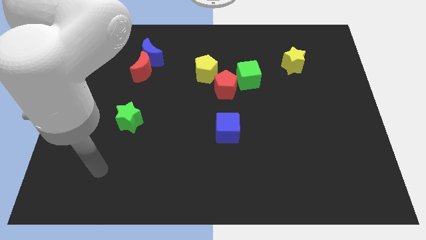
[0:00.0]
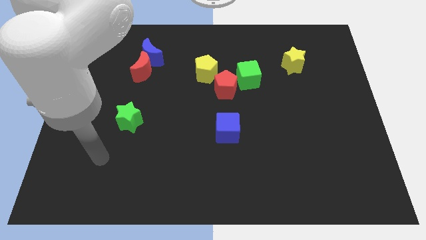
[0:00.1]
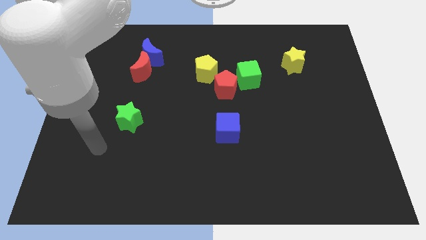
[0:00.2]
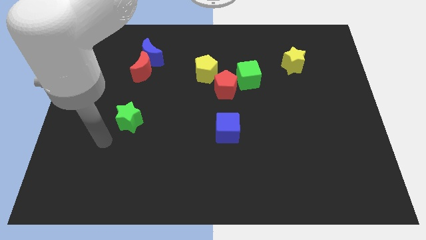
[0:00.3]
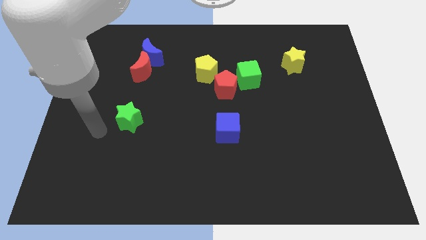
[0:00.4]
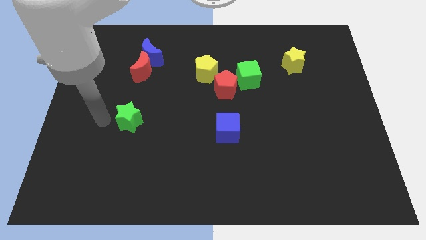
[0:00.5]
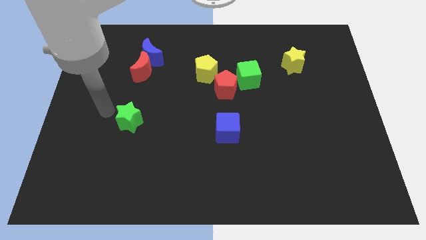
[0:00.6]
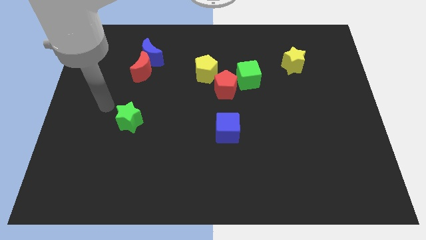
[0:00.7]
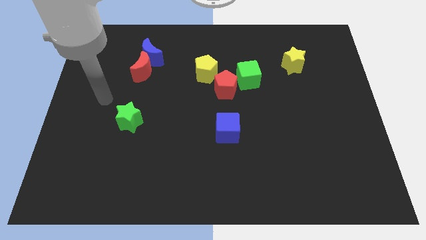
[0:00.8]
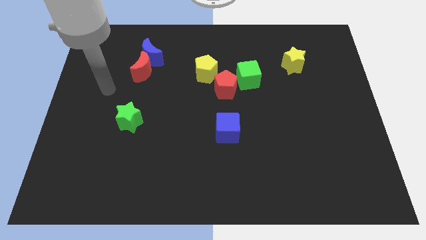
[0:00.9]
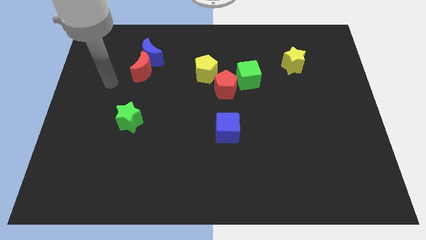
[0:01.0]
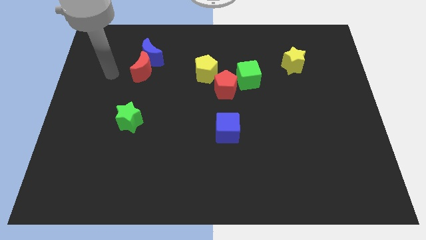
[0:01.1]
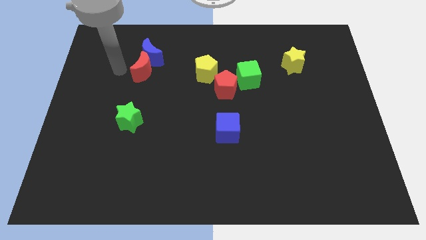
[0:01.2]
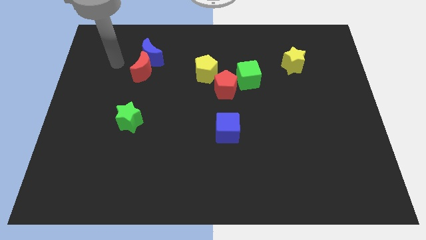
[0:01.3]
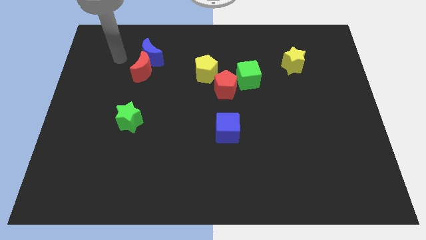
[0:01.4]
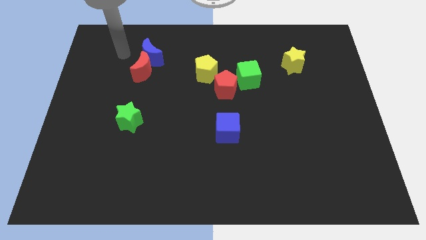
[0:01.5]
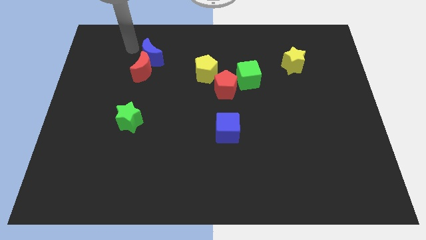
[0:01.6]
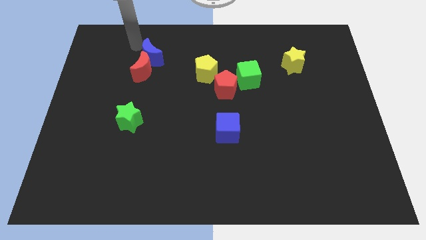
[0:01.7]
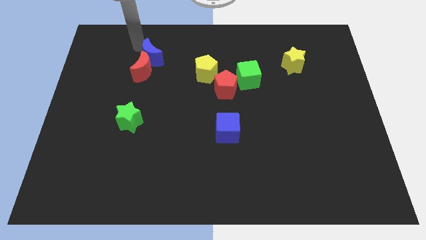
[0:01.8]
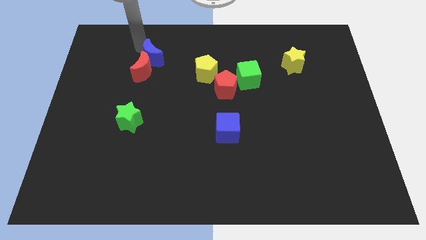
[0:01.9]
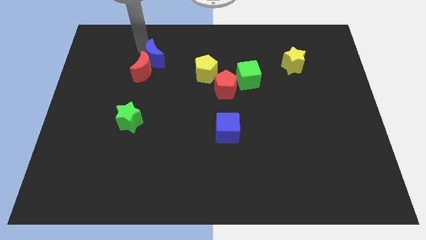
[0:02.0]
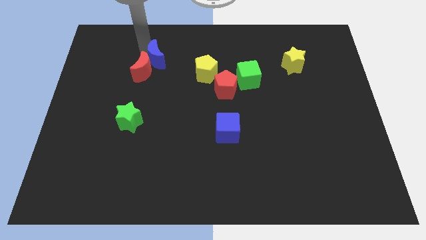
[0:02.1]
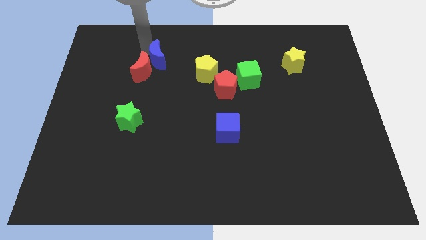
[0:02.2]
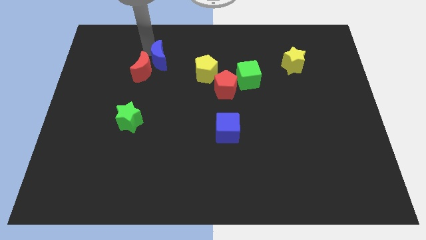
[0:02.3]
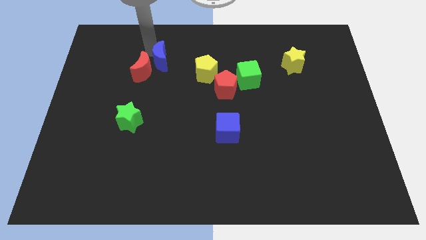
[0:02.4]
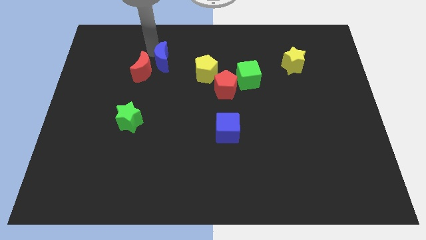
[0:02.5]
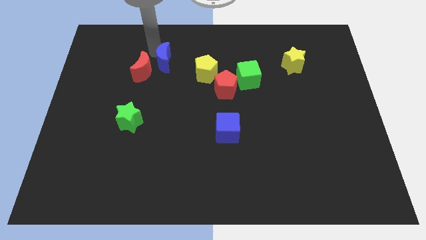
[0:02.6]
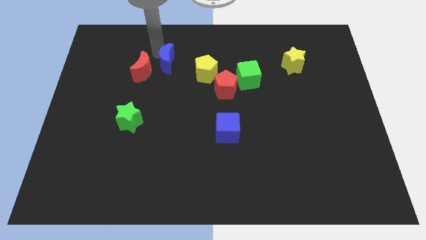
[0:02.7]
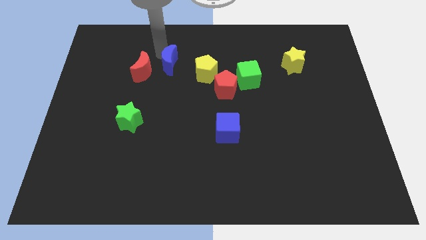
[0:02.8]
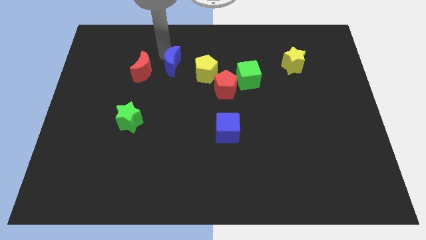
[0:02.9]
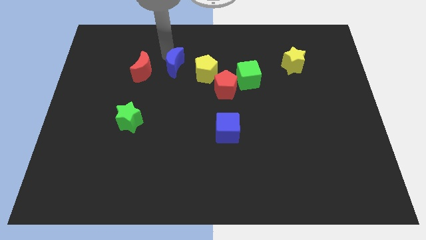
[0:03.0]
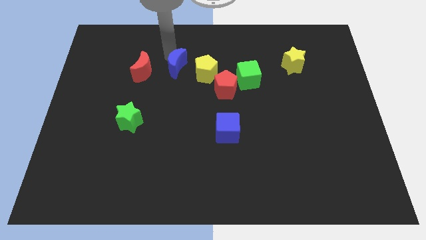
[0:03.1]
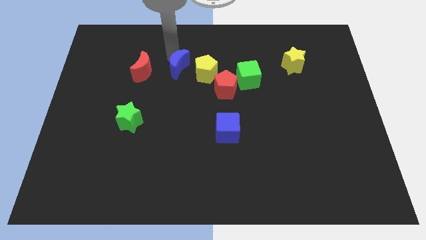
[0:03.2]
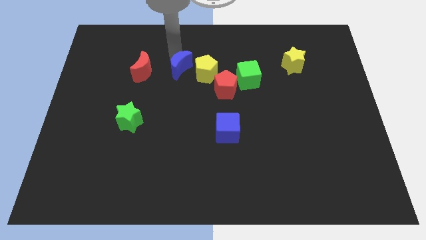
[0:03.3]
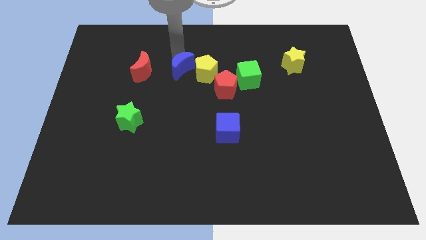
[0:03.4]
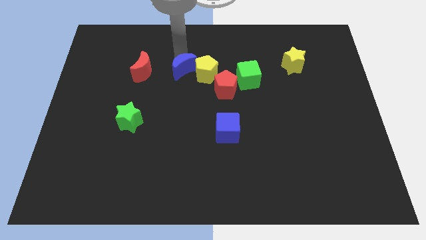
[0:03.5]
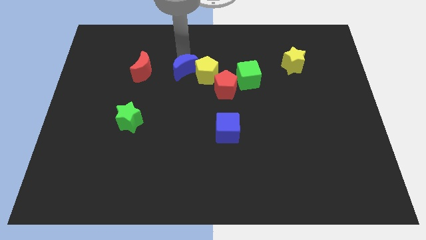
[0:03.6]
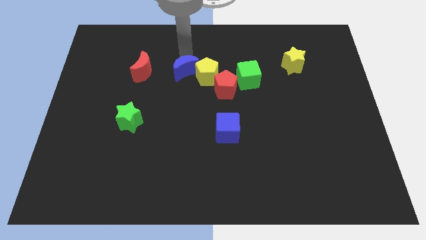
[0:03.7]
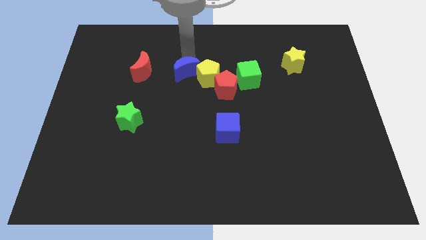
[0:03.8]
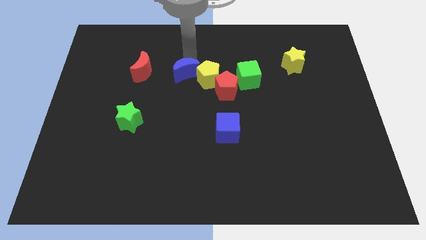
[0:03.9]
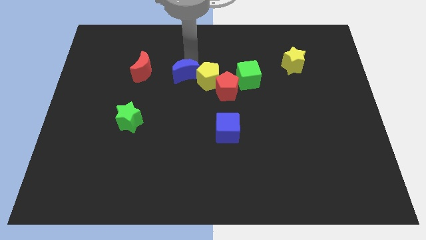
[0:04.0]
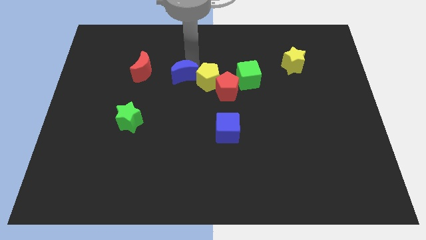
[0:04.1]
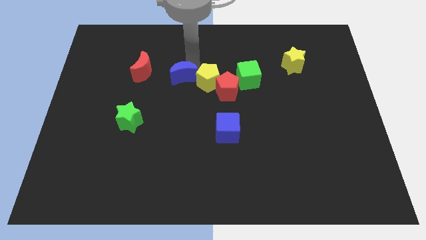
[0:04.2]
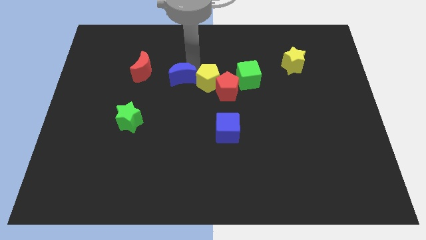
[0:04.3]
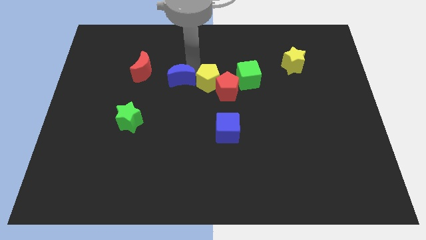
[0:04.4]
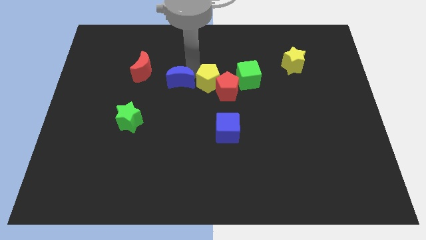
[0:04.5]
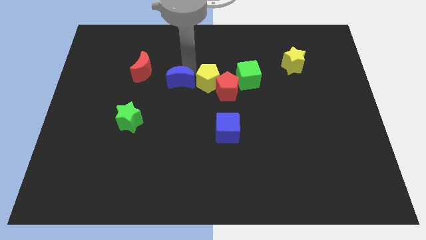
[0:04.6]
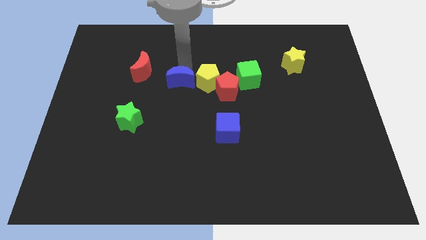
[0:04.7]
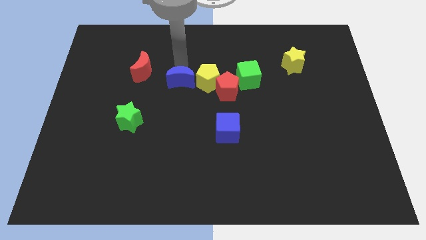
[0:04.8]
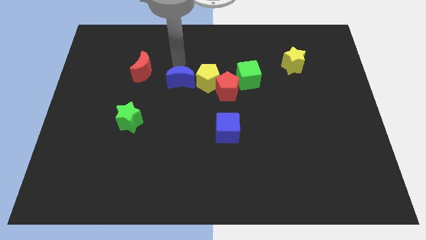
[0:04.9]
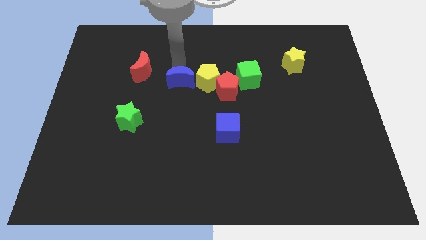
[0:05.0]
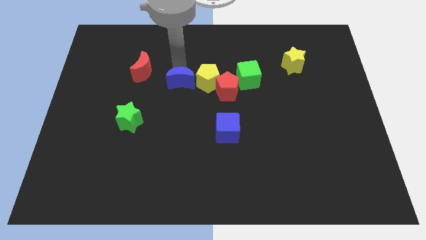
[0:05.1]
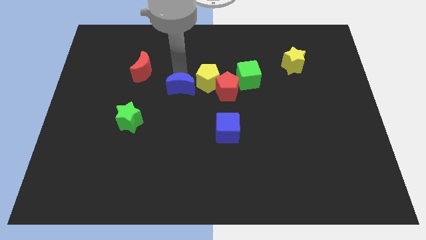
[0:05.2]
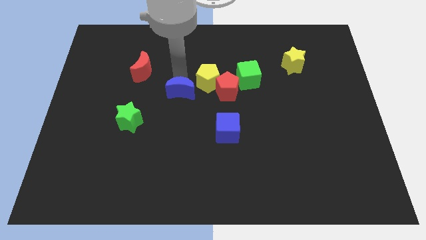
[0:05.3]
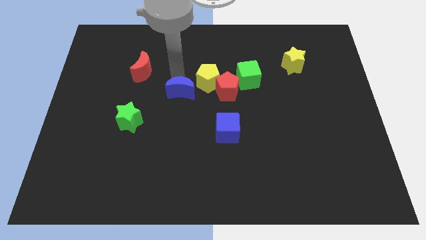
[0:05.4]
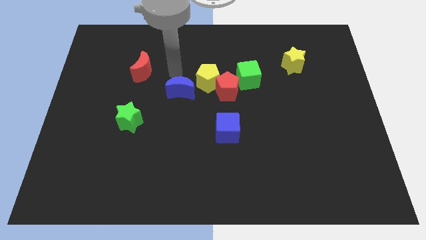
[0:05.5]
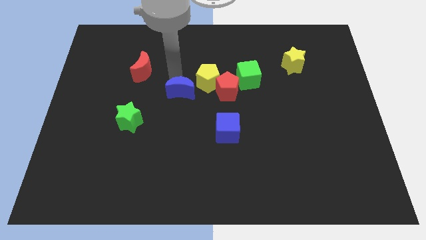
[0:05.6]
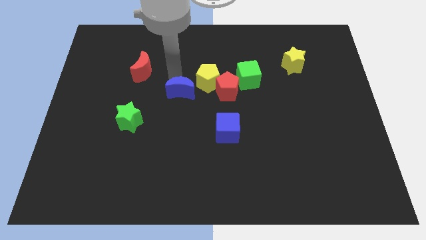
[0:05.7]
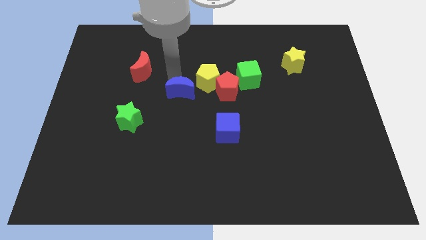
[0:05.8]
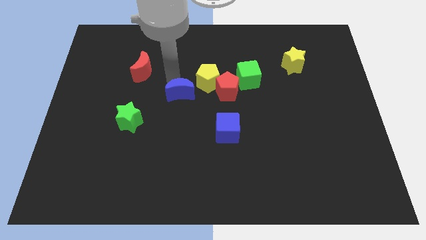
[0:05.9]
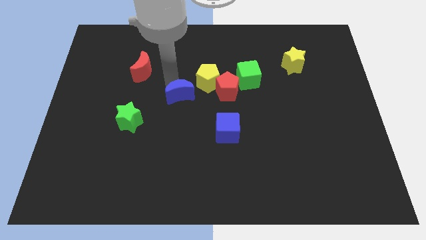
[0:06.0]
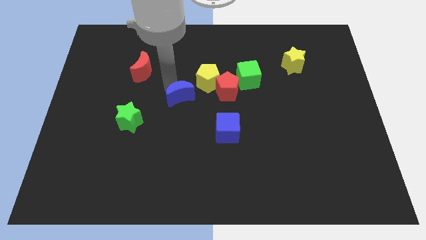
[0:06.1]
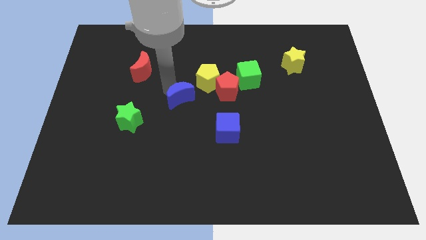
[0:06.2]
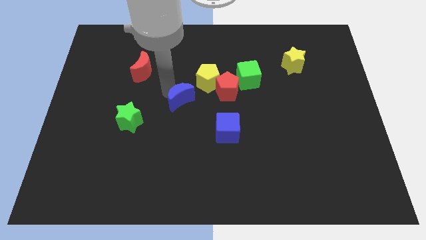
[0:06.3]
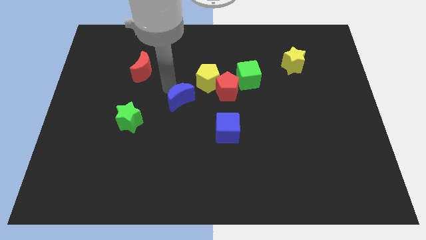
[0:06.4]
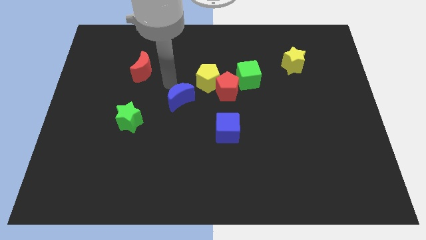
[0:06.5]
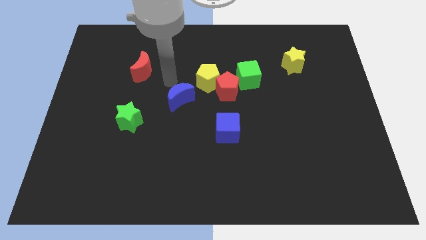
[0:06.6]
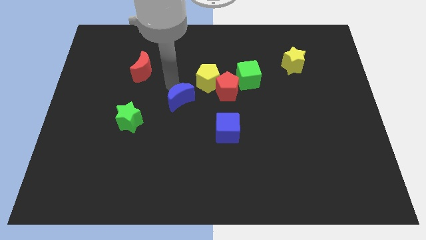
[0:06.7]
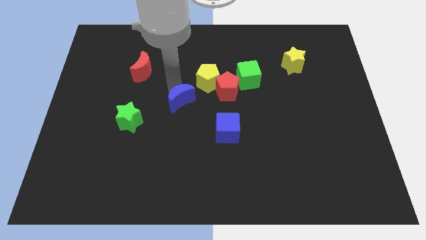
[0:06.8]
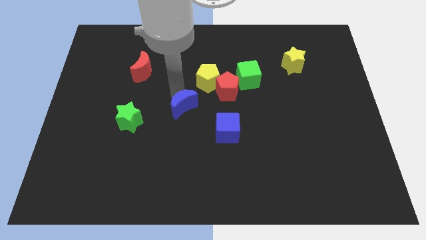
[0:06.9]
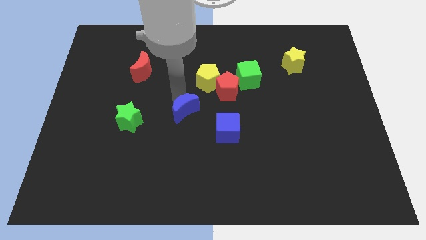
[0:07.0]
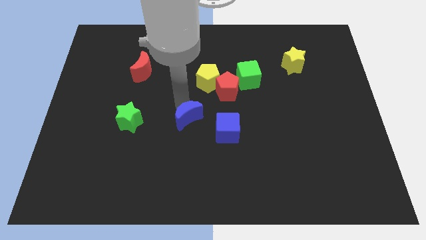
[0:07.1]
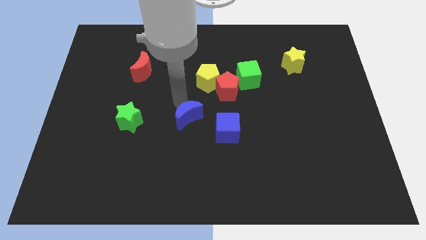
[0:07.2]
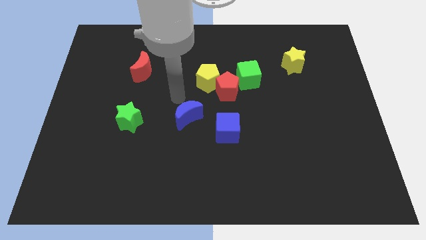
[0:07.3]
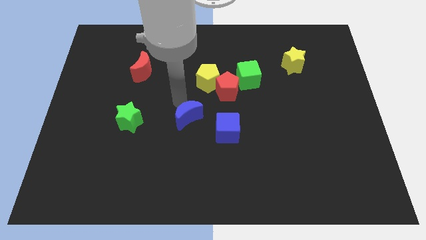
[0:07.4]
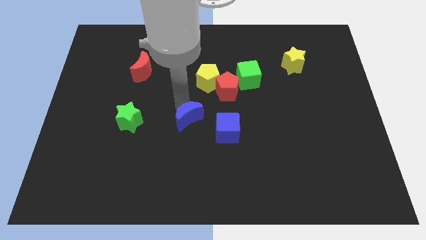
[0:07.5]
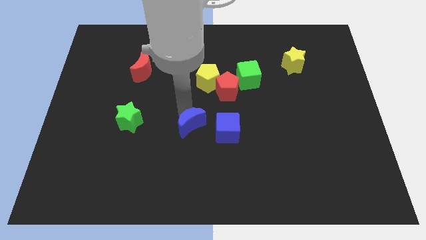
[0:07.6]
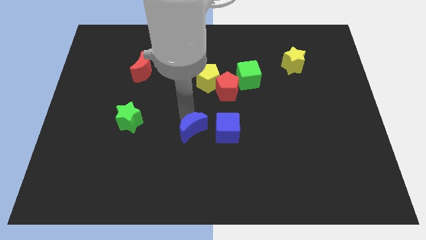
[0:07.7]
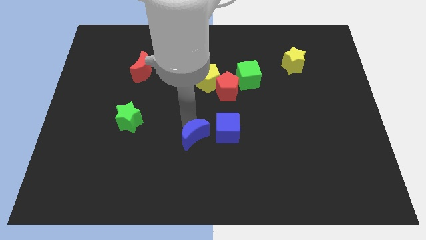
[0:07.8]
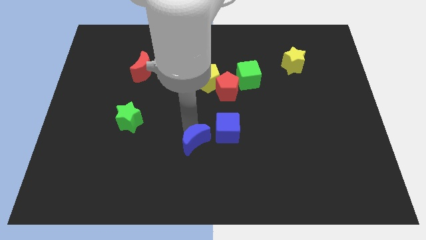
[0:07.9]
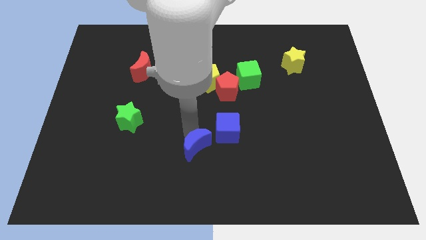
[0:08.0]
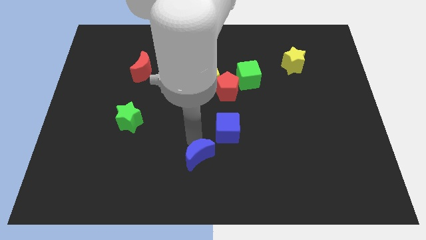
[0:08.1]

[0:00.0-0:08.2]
push the blue moon to the bottom

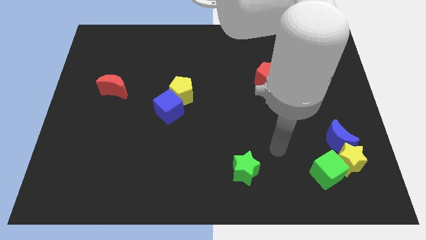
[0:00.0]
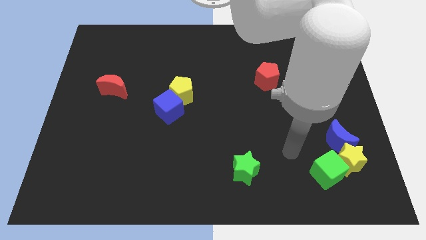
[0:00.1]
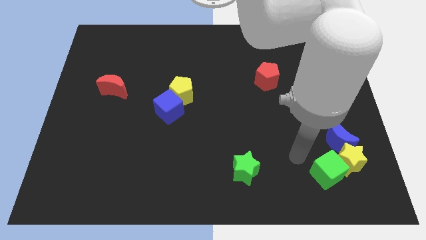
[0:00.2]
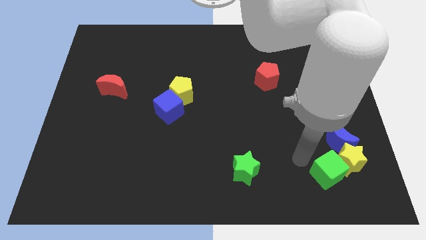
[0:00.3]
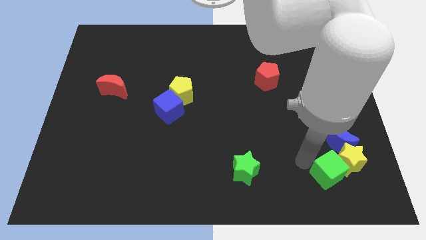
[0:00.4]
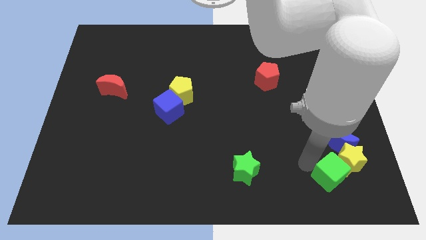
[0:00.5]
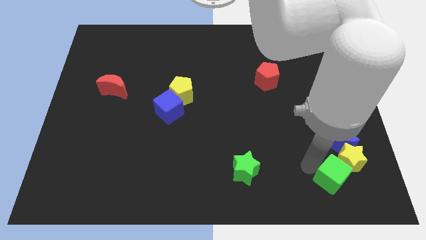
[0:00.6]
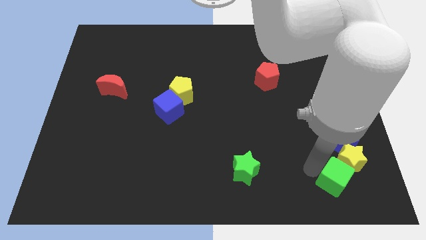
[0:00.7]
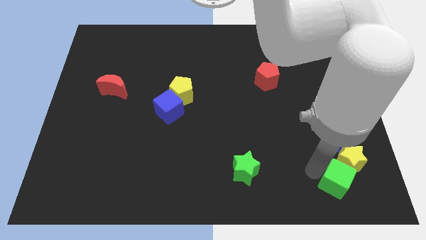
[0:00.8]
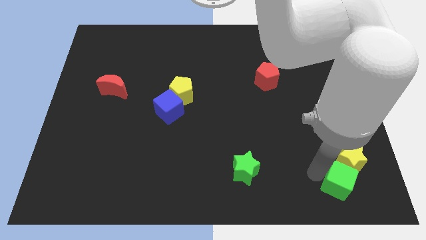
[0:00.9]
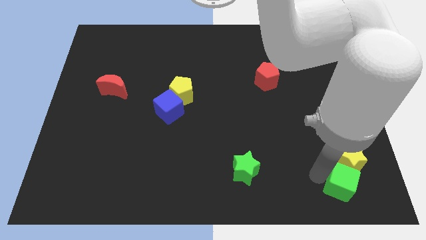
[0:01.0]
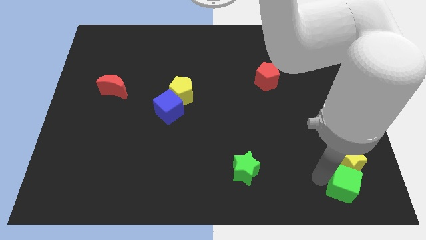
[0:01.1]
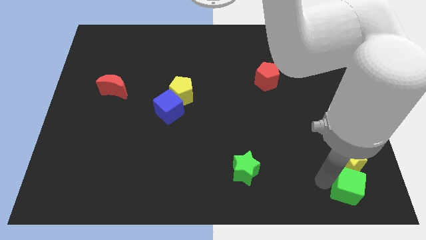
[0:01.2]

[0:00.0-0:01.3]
put the green cube to the bottom right corner
